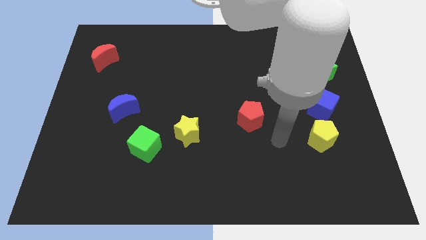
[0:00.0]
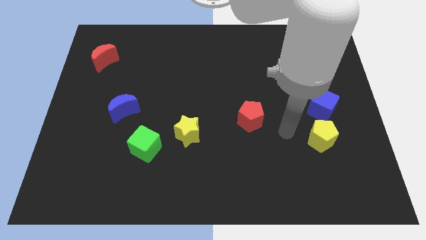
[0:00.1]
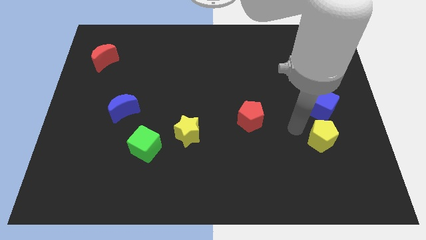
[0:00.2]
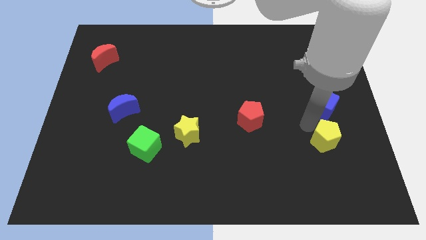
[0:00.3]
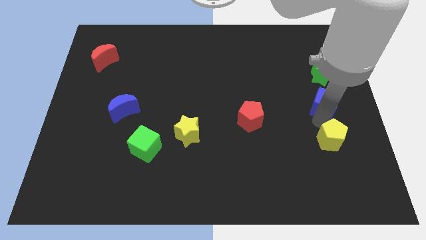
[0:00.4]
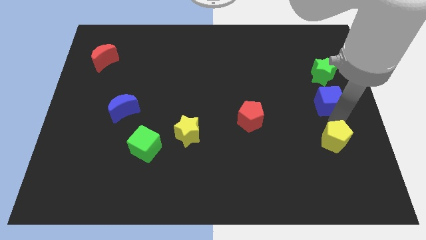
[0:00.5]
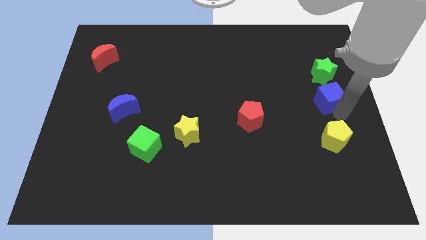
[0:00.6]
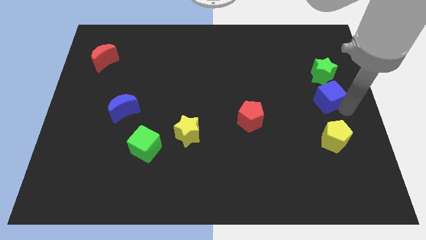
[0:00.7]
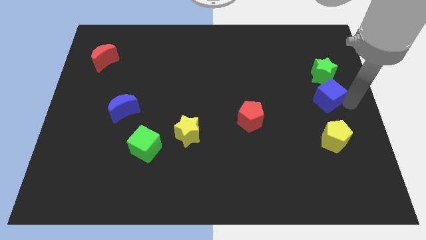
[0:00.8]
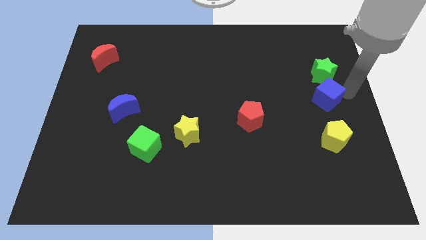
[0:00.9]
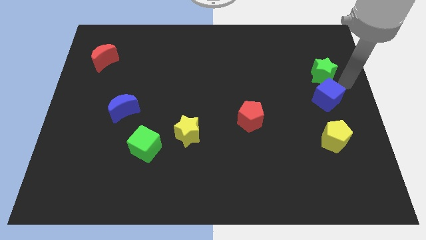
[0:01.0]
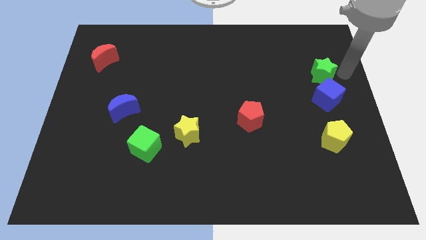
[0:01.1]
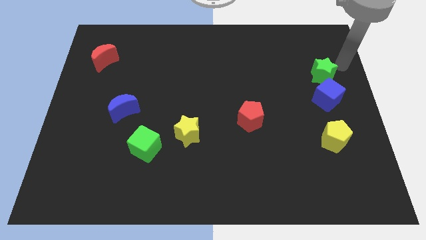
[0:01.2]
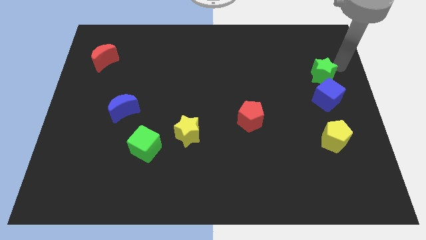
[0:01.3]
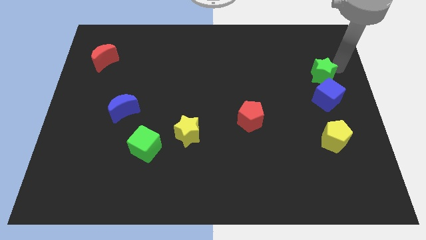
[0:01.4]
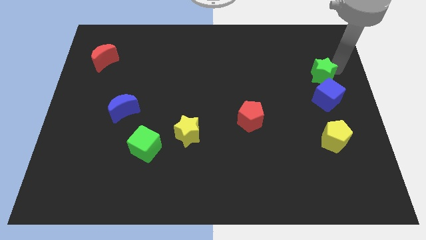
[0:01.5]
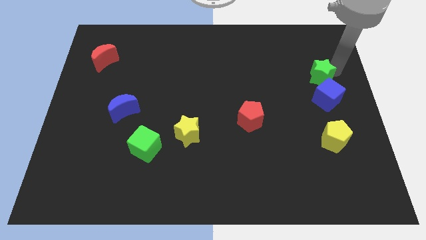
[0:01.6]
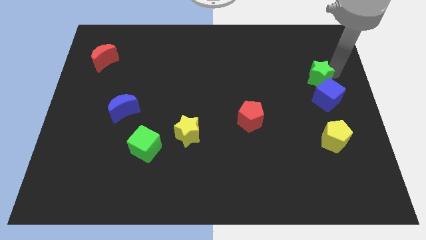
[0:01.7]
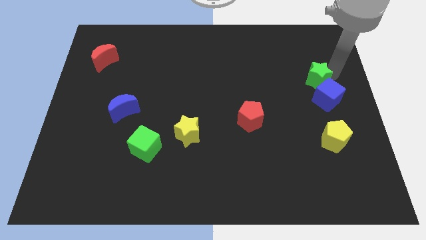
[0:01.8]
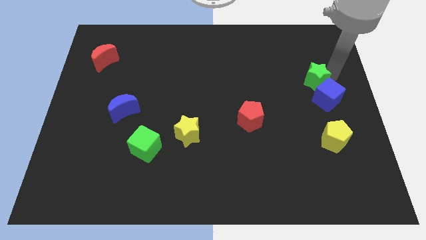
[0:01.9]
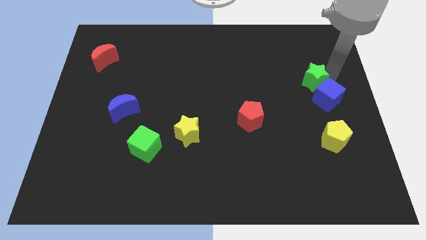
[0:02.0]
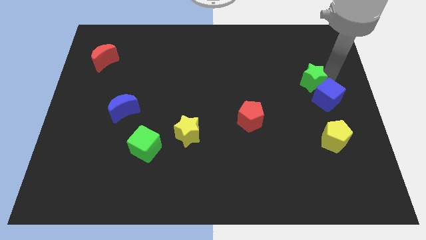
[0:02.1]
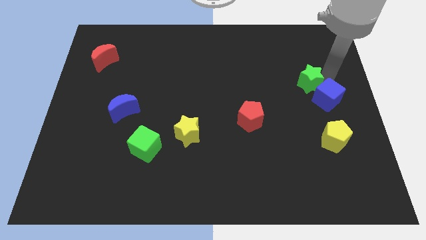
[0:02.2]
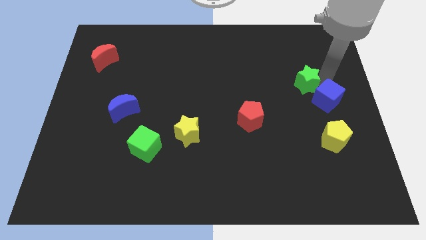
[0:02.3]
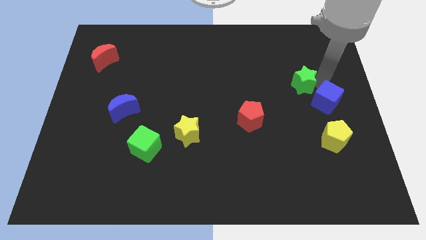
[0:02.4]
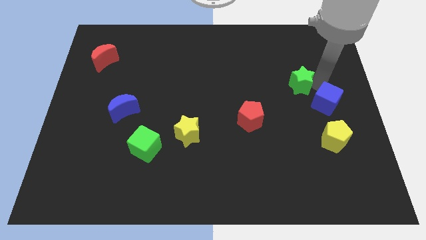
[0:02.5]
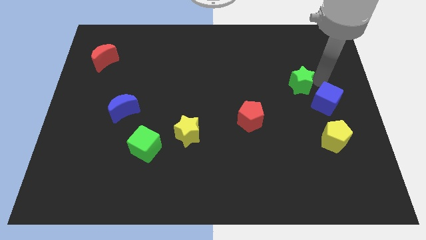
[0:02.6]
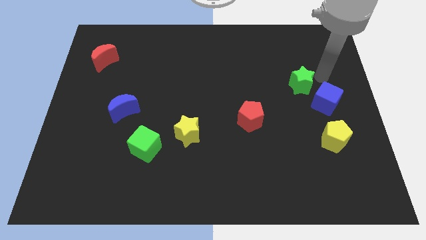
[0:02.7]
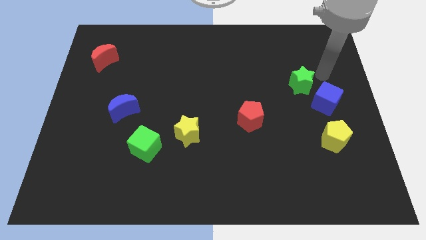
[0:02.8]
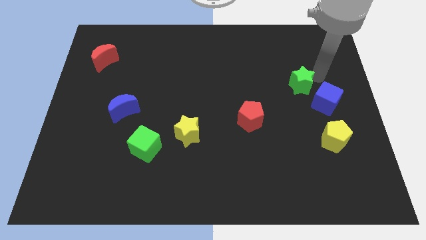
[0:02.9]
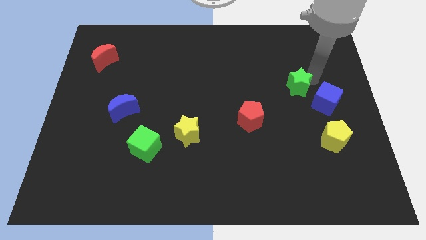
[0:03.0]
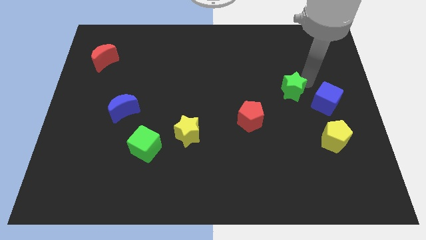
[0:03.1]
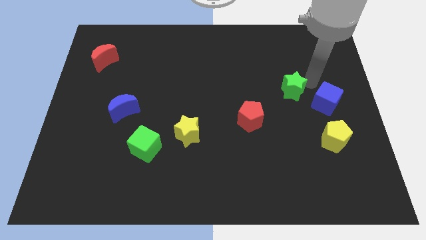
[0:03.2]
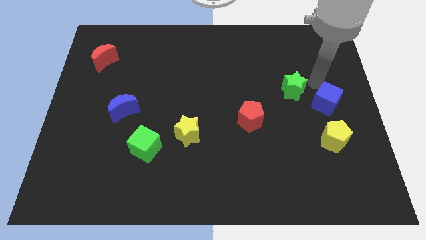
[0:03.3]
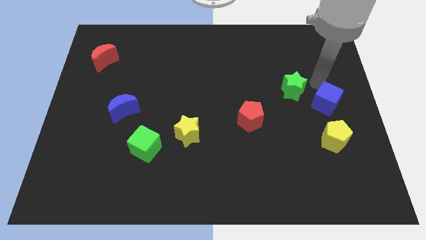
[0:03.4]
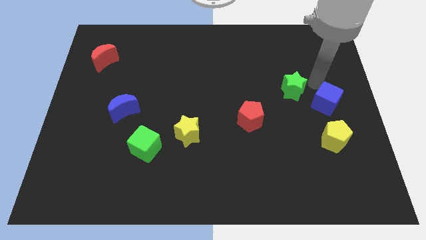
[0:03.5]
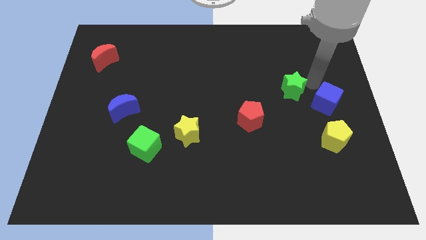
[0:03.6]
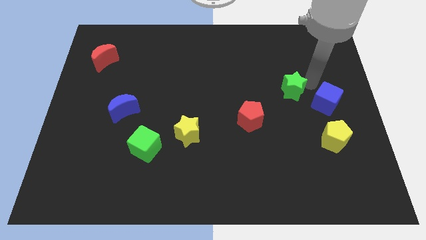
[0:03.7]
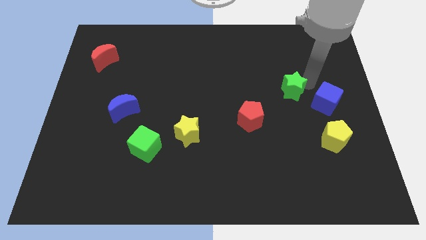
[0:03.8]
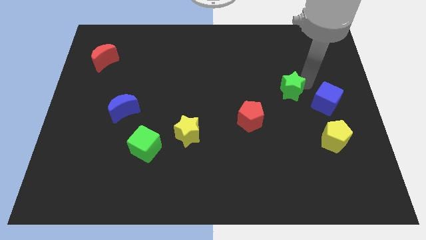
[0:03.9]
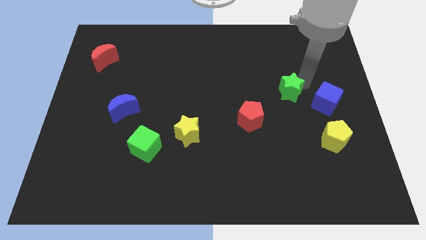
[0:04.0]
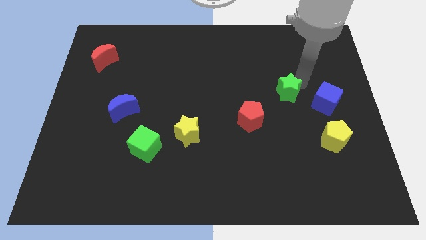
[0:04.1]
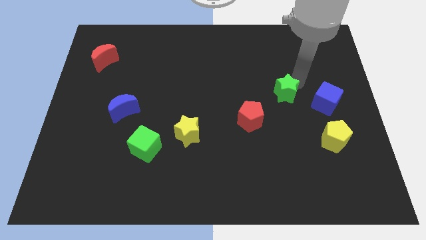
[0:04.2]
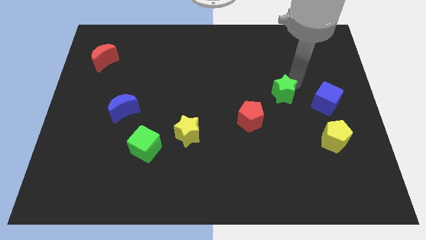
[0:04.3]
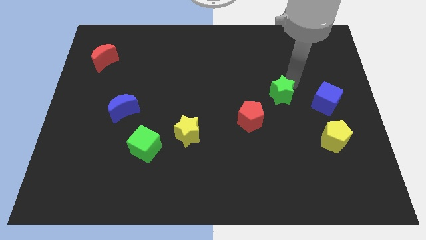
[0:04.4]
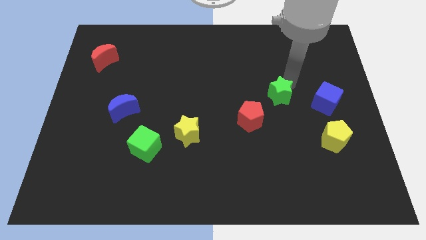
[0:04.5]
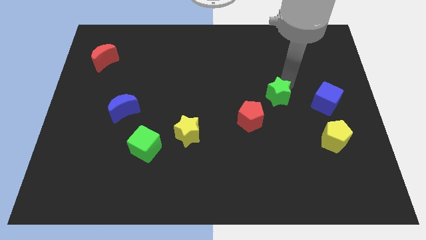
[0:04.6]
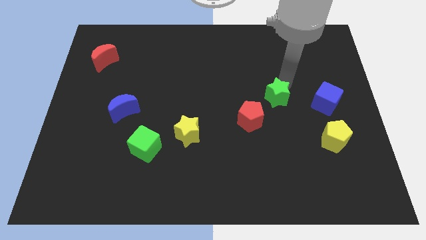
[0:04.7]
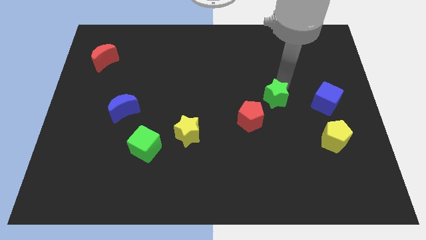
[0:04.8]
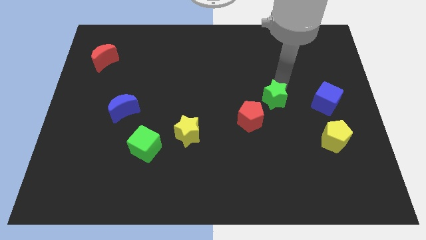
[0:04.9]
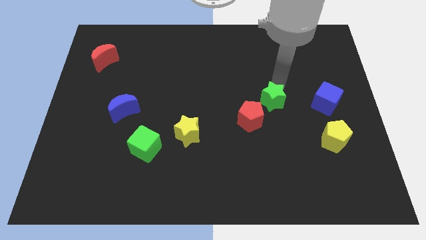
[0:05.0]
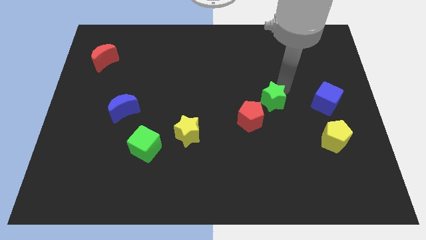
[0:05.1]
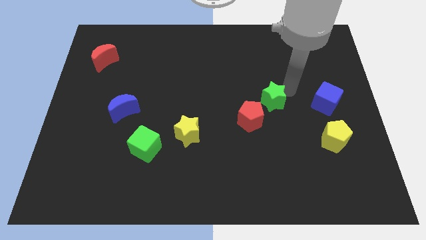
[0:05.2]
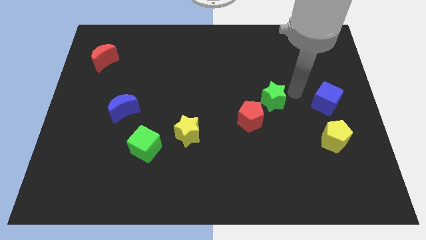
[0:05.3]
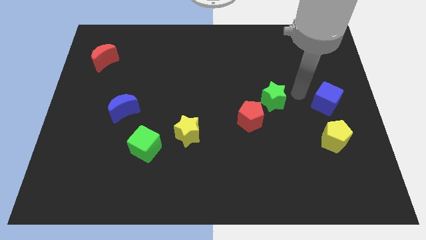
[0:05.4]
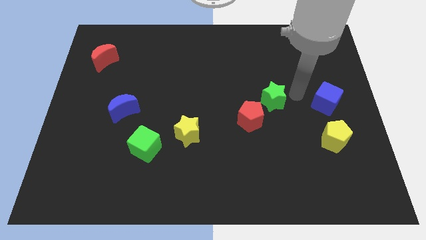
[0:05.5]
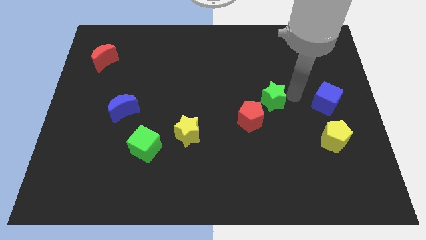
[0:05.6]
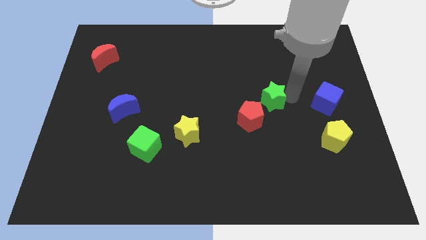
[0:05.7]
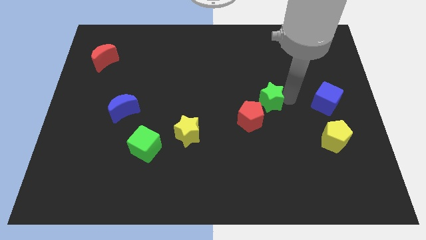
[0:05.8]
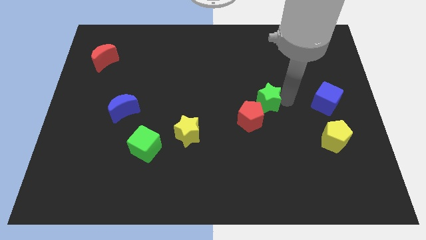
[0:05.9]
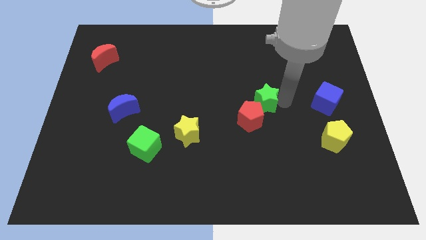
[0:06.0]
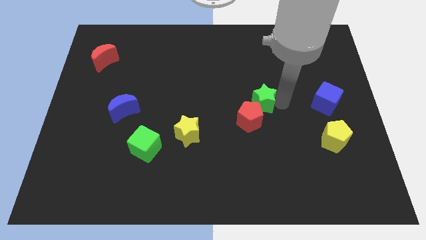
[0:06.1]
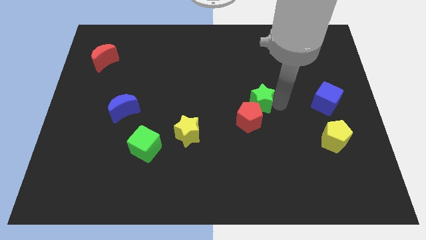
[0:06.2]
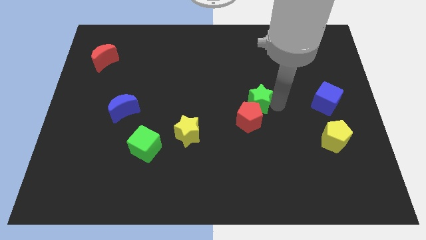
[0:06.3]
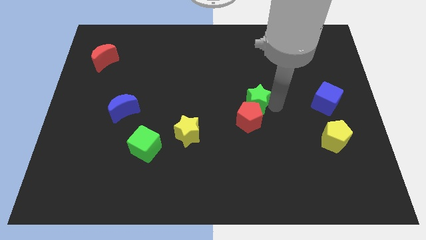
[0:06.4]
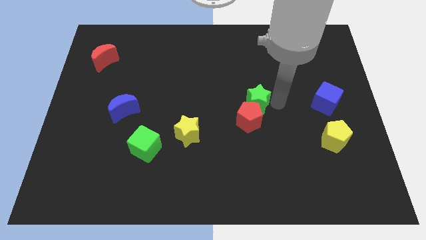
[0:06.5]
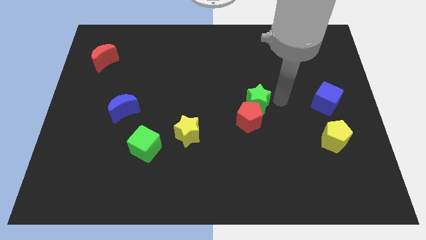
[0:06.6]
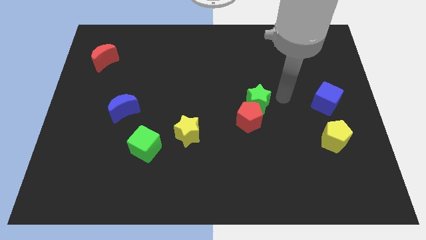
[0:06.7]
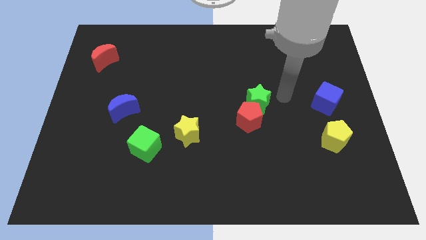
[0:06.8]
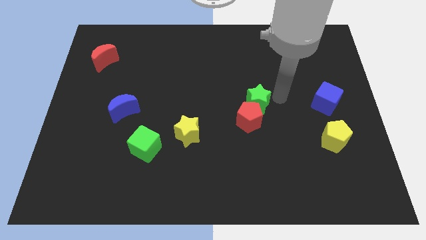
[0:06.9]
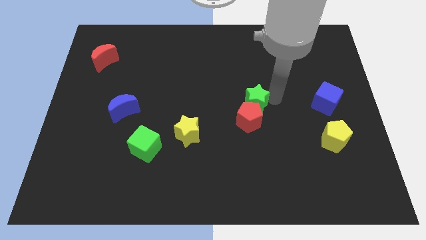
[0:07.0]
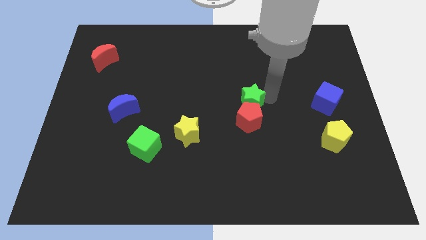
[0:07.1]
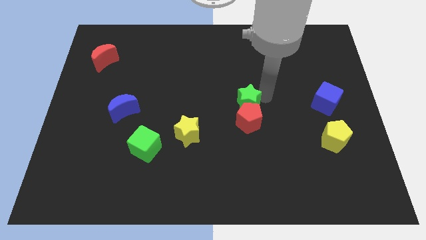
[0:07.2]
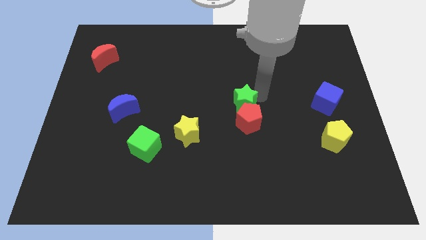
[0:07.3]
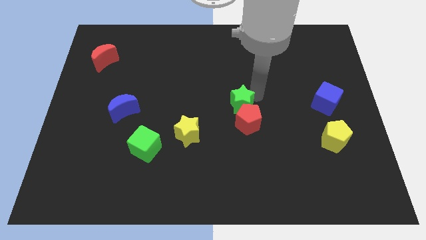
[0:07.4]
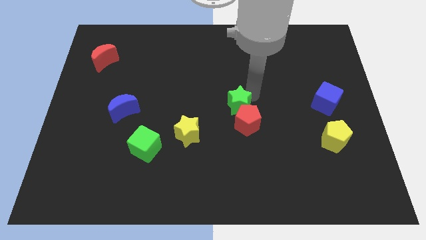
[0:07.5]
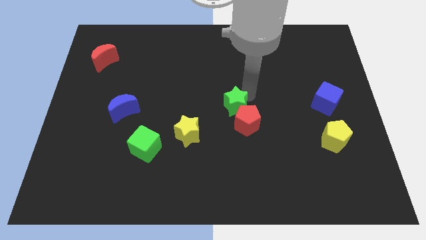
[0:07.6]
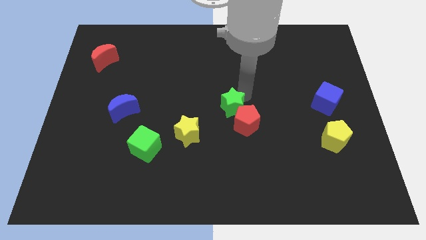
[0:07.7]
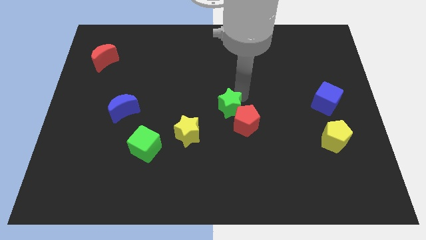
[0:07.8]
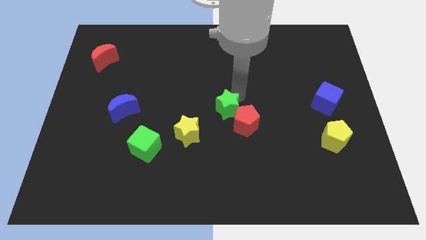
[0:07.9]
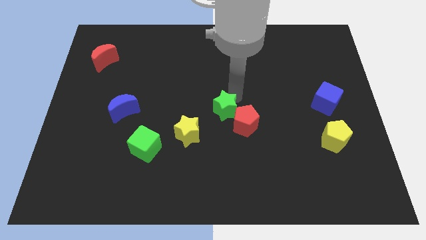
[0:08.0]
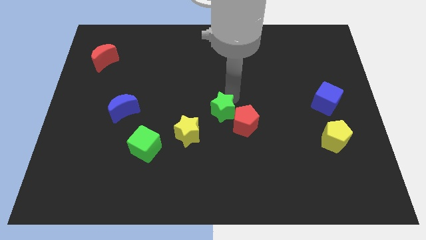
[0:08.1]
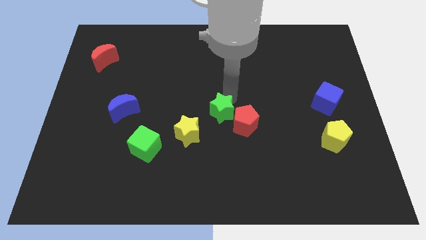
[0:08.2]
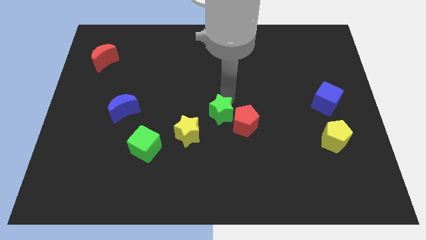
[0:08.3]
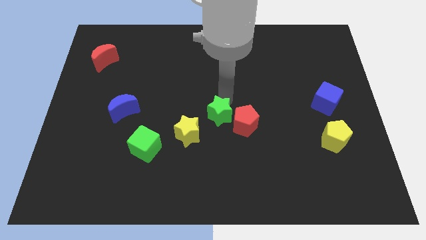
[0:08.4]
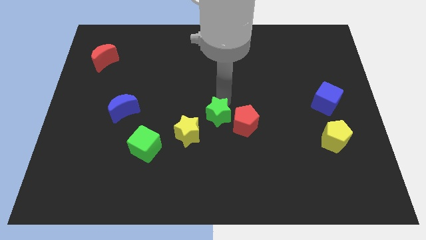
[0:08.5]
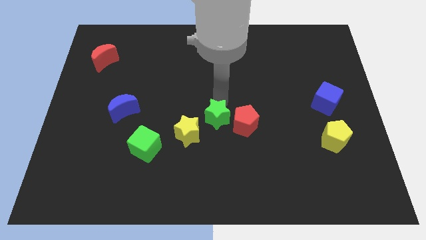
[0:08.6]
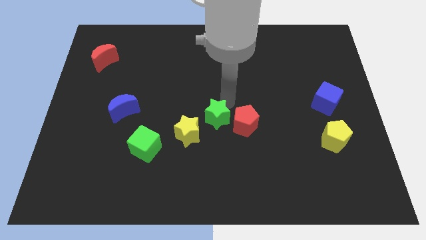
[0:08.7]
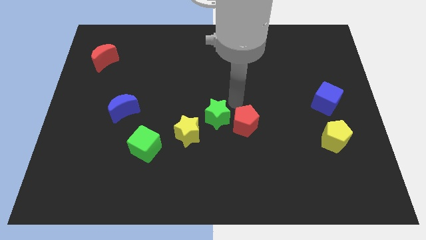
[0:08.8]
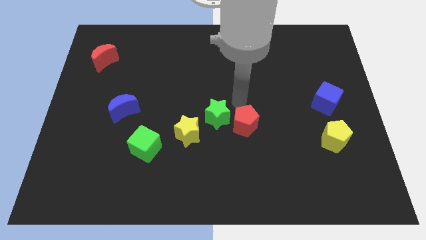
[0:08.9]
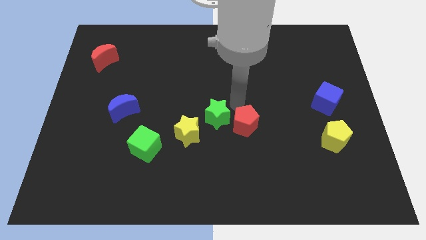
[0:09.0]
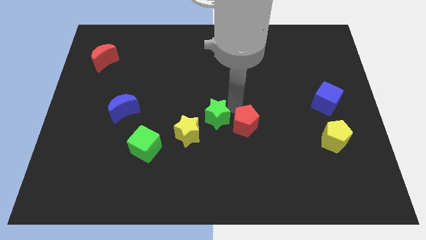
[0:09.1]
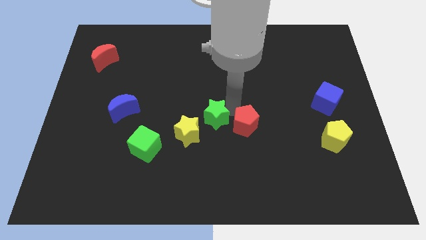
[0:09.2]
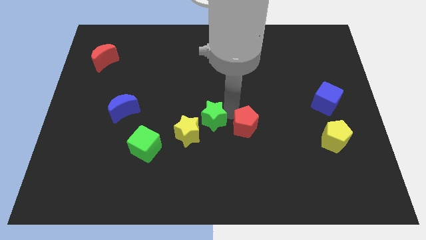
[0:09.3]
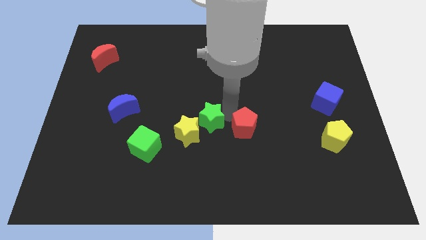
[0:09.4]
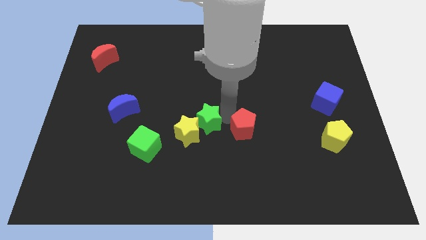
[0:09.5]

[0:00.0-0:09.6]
slide the green star close to the yellow star
